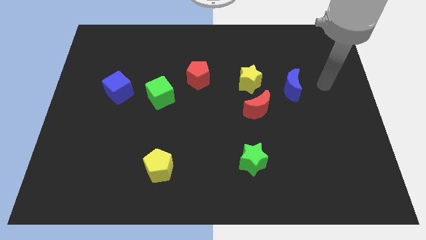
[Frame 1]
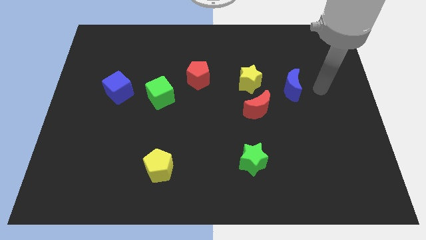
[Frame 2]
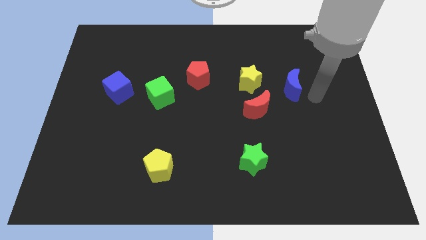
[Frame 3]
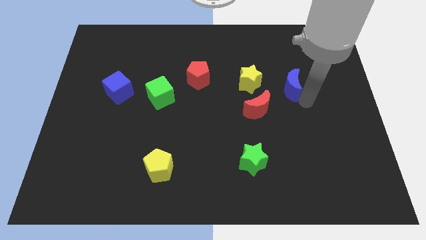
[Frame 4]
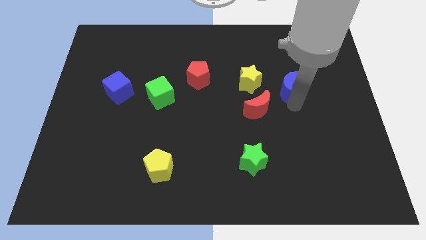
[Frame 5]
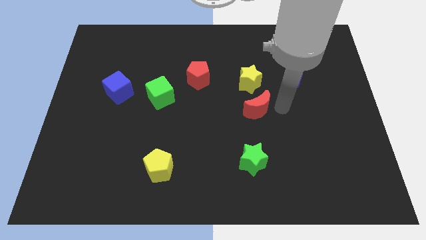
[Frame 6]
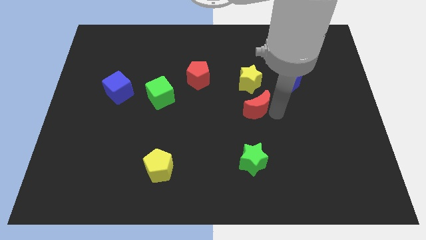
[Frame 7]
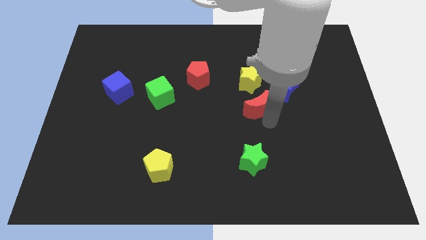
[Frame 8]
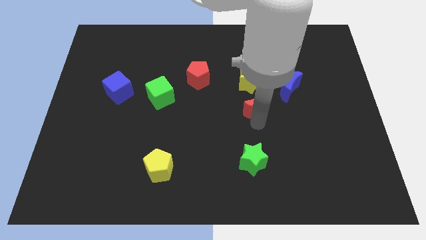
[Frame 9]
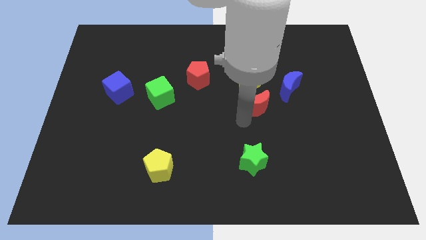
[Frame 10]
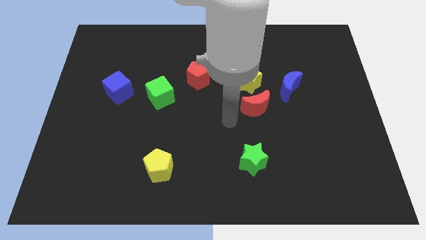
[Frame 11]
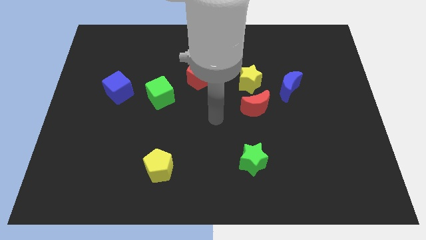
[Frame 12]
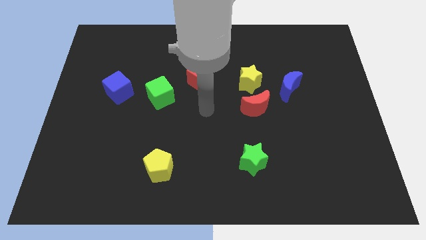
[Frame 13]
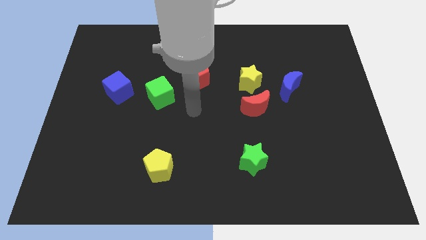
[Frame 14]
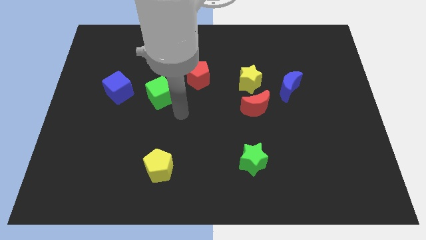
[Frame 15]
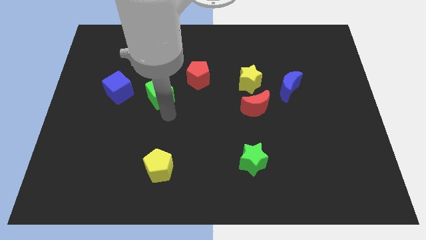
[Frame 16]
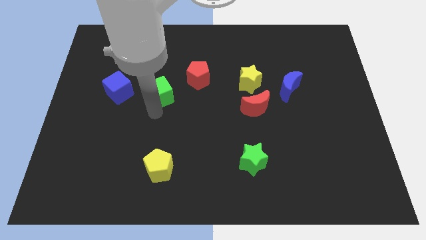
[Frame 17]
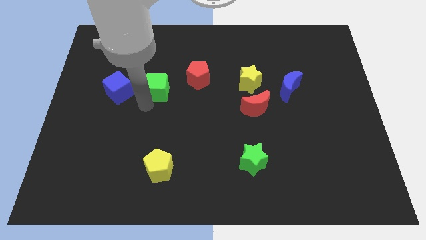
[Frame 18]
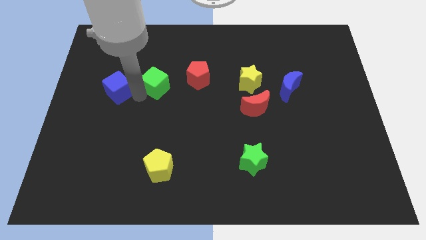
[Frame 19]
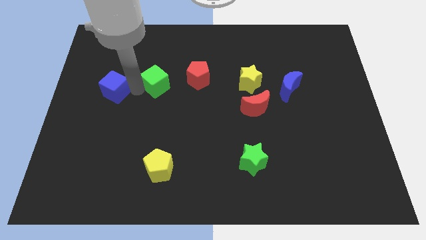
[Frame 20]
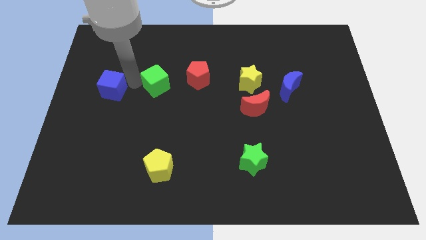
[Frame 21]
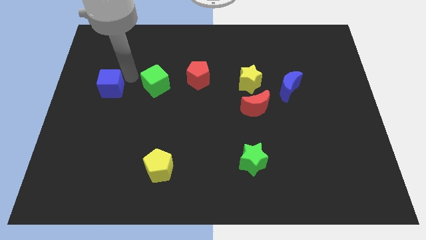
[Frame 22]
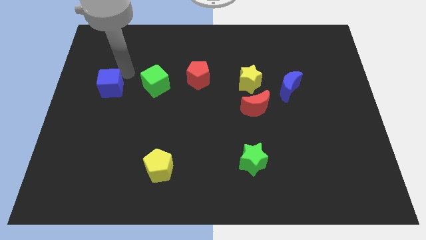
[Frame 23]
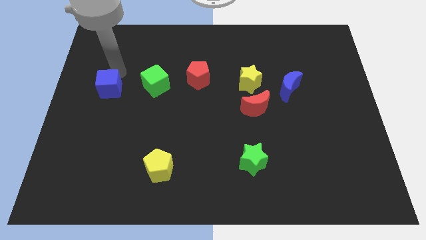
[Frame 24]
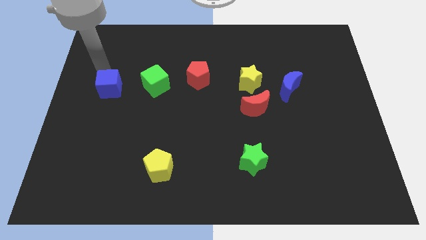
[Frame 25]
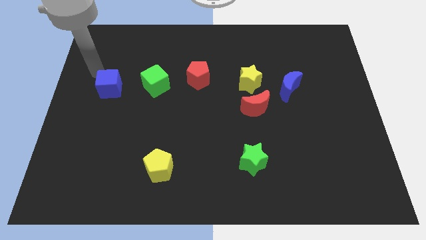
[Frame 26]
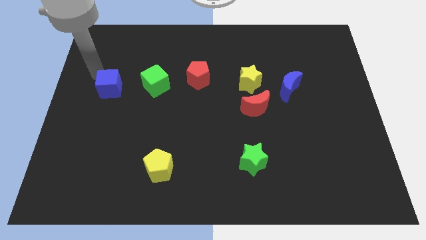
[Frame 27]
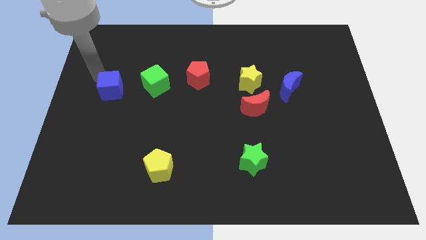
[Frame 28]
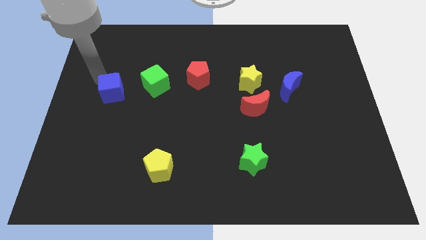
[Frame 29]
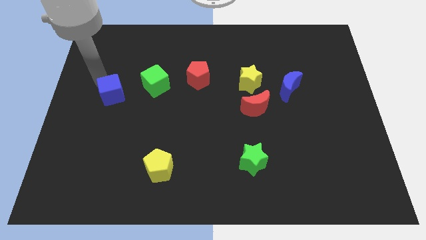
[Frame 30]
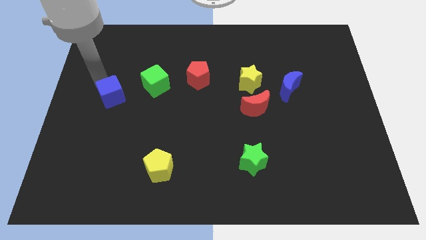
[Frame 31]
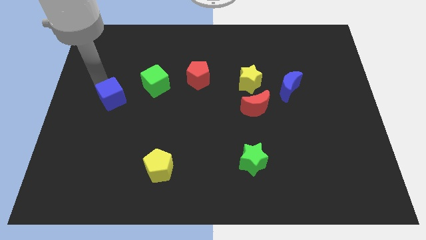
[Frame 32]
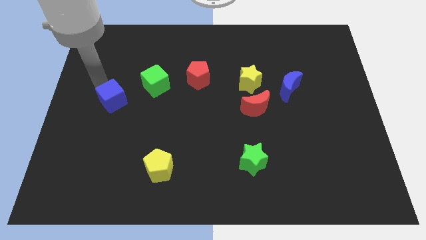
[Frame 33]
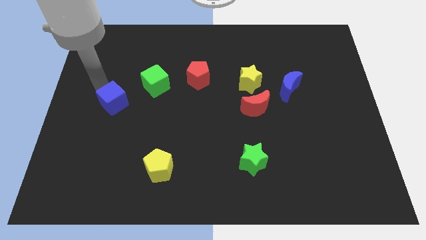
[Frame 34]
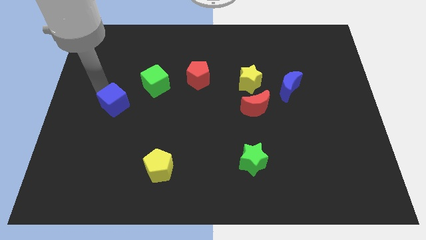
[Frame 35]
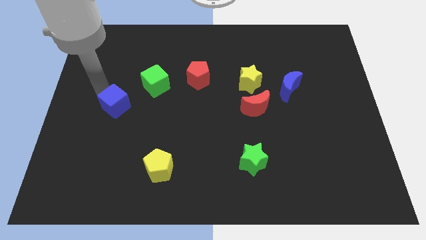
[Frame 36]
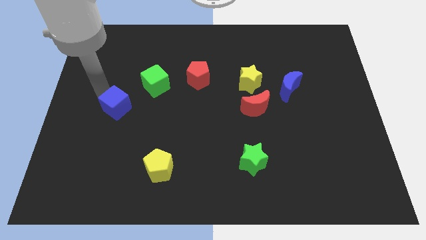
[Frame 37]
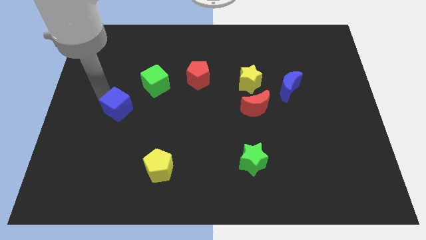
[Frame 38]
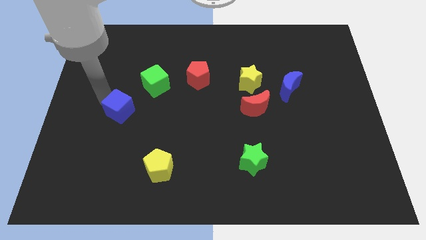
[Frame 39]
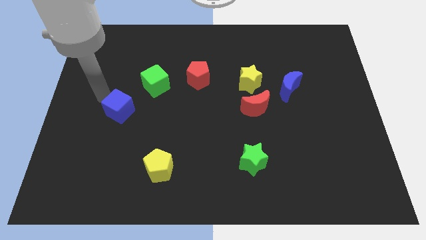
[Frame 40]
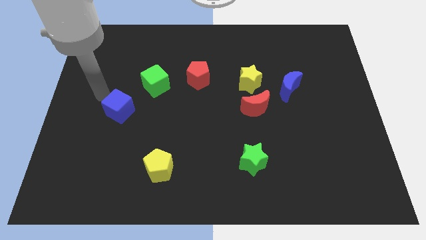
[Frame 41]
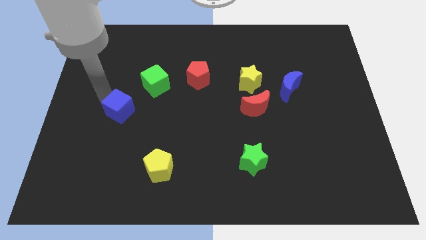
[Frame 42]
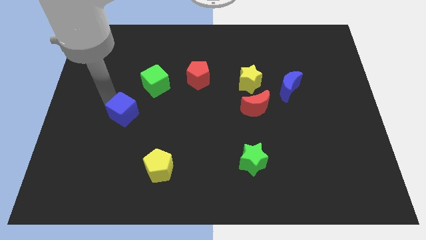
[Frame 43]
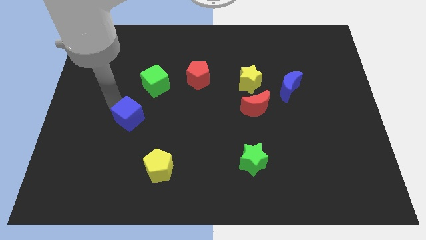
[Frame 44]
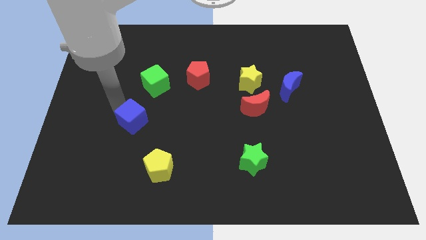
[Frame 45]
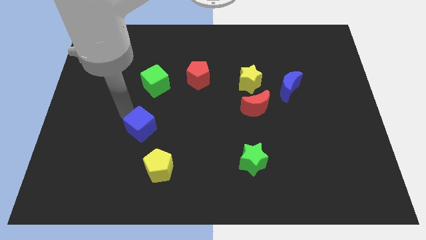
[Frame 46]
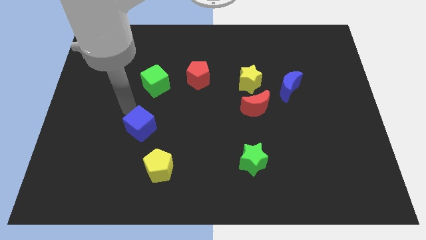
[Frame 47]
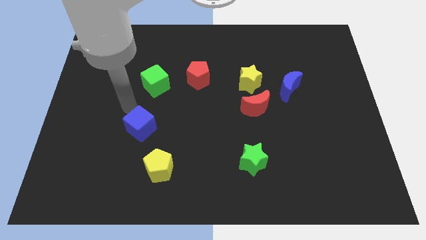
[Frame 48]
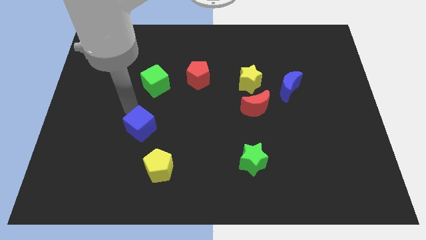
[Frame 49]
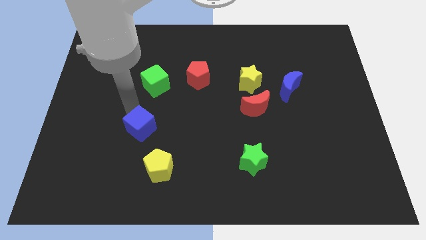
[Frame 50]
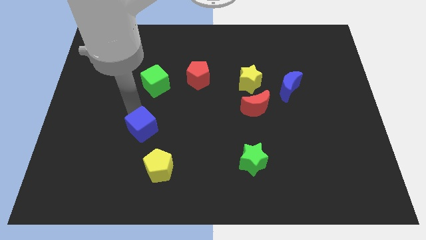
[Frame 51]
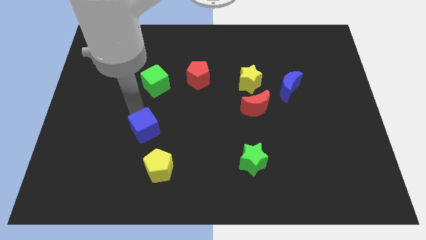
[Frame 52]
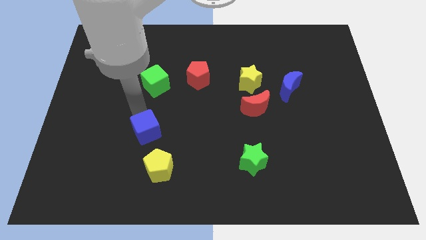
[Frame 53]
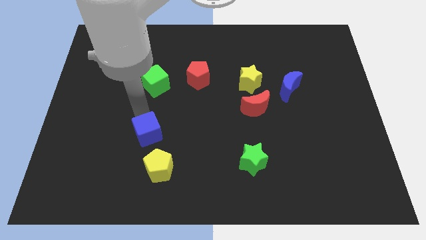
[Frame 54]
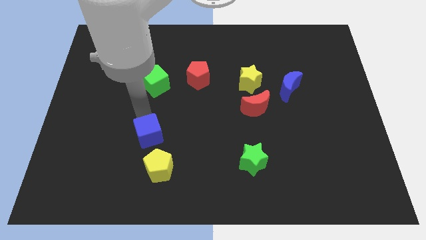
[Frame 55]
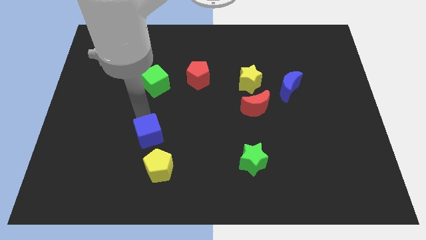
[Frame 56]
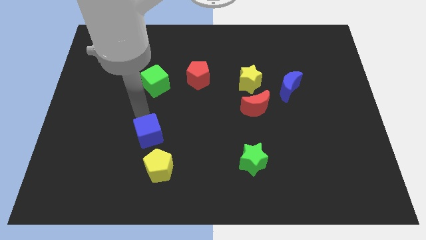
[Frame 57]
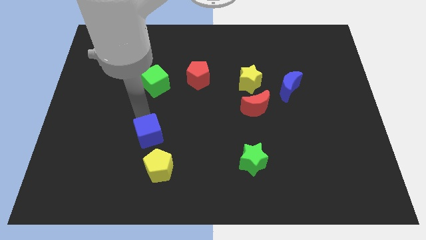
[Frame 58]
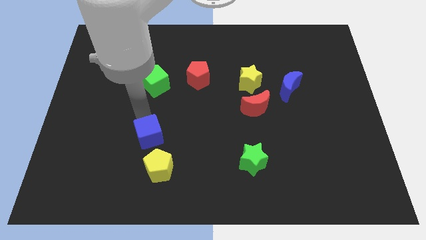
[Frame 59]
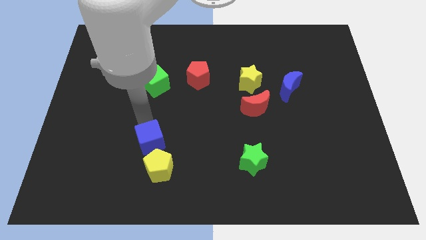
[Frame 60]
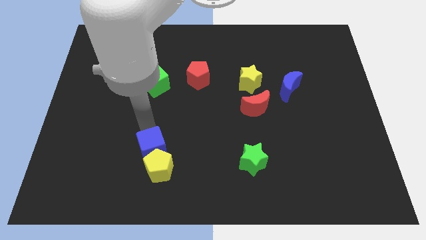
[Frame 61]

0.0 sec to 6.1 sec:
put the blue cube next to the yellow pentagon

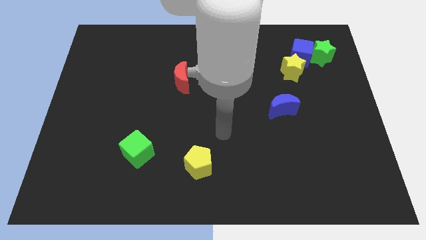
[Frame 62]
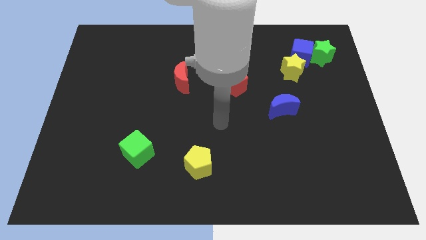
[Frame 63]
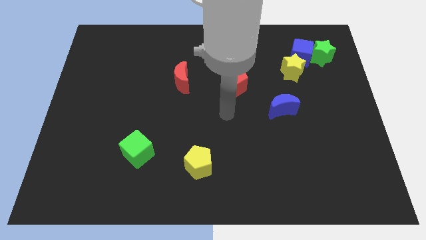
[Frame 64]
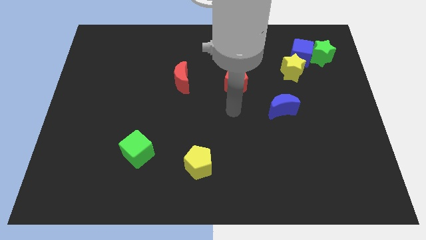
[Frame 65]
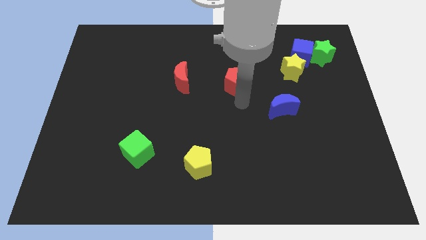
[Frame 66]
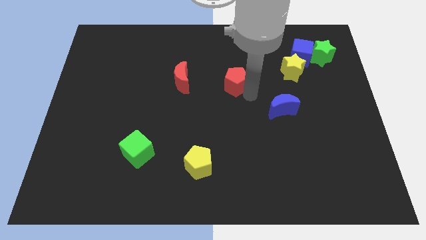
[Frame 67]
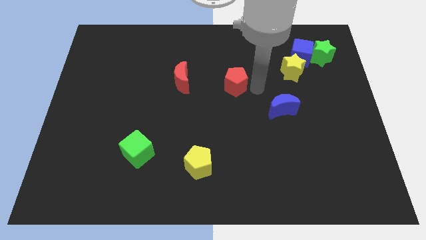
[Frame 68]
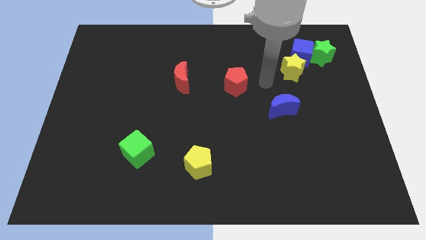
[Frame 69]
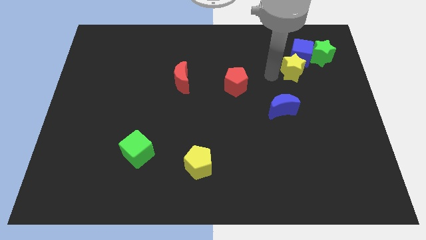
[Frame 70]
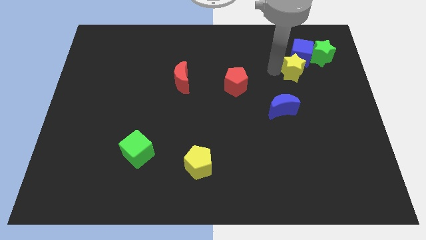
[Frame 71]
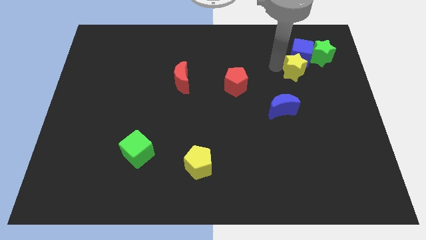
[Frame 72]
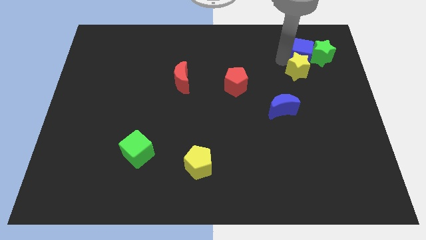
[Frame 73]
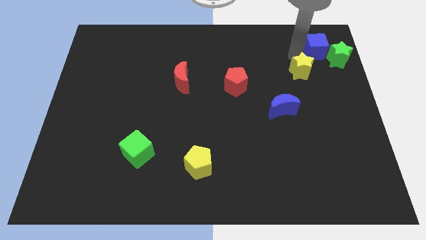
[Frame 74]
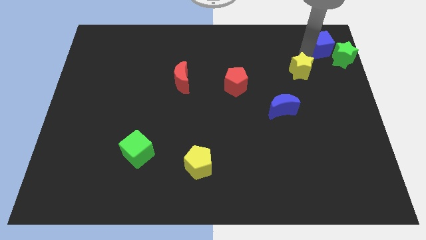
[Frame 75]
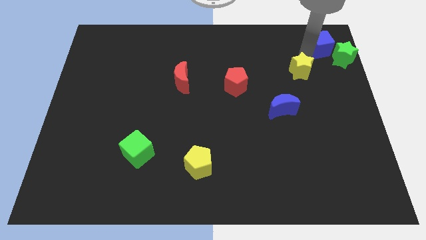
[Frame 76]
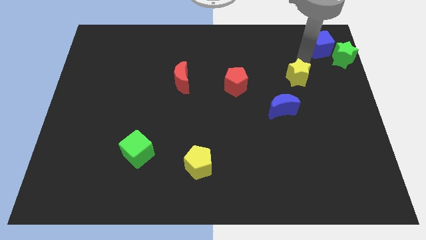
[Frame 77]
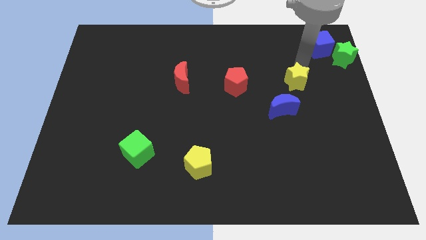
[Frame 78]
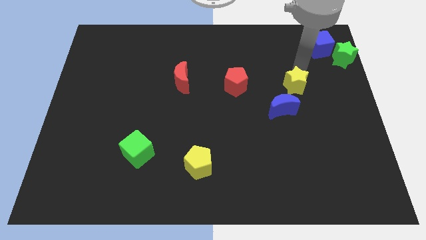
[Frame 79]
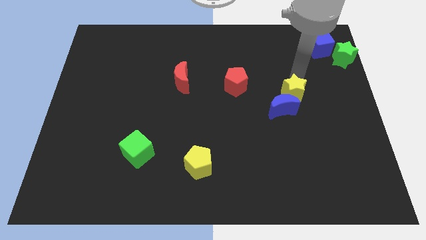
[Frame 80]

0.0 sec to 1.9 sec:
push the yellow star close to the blue moon
